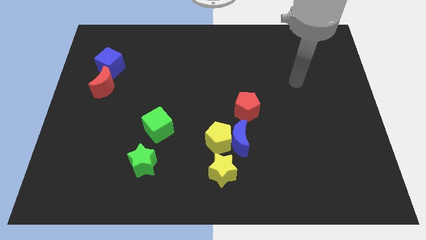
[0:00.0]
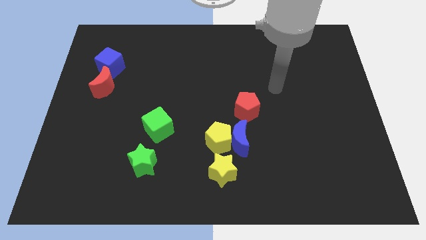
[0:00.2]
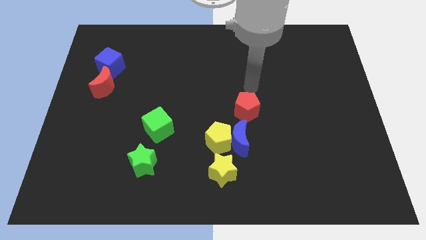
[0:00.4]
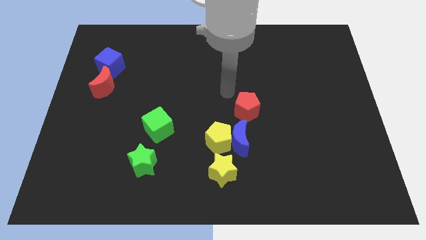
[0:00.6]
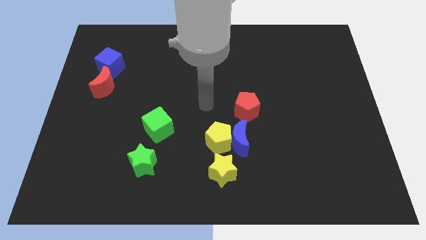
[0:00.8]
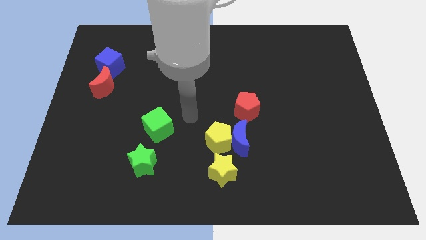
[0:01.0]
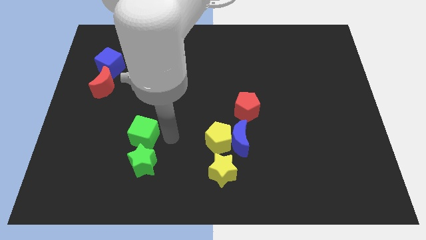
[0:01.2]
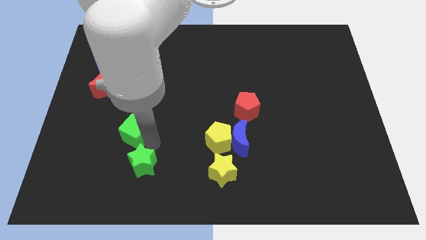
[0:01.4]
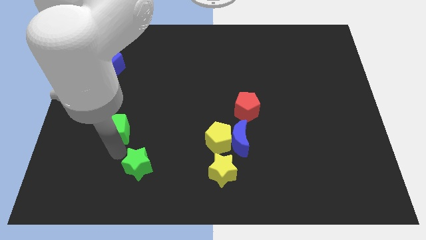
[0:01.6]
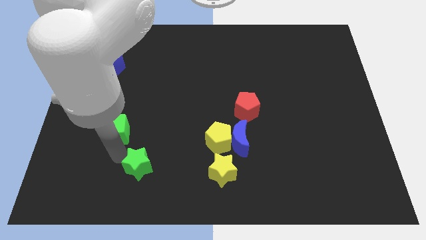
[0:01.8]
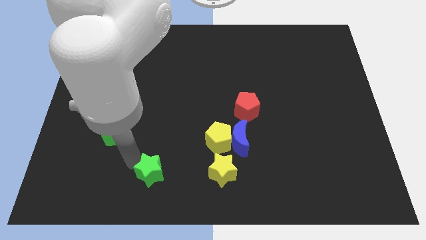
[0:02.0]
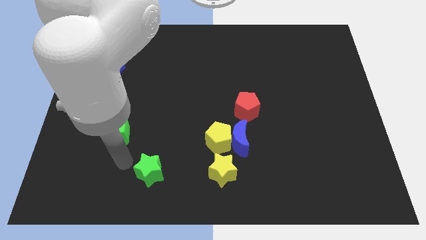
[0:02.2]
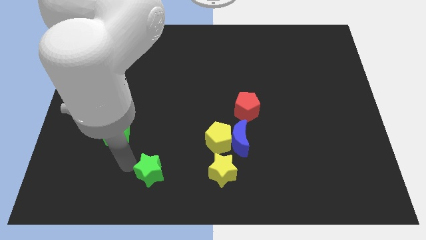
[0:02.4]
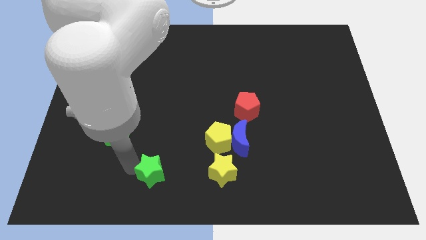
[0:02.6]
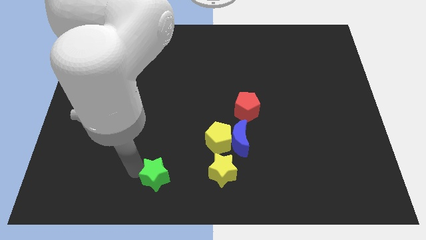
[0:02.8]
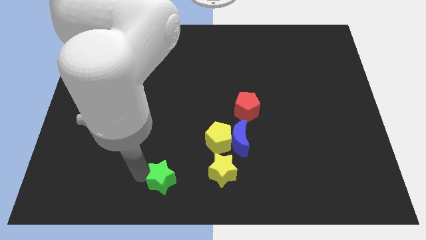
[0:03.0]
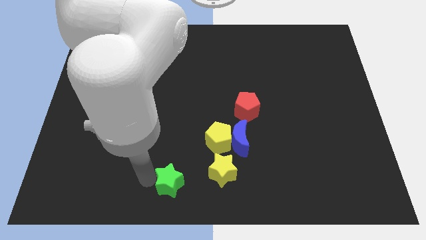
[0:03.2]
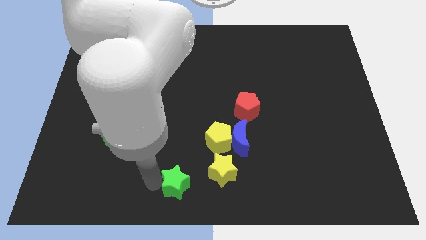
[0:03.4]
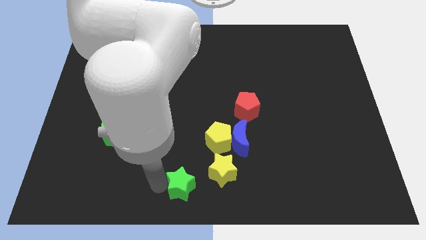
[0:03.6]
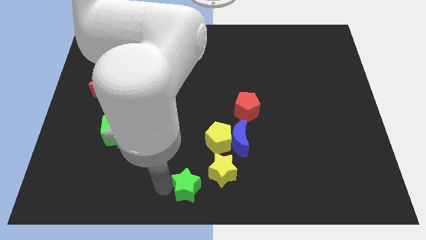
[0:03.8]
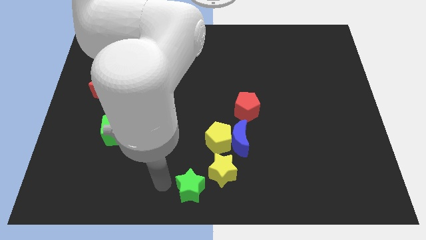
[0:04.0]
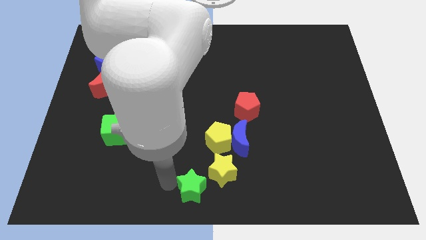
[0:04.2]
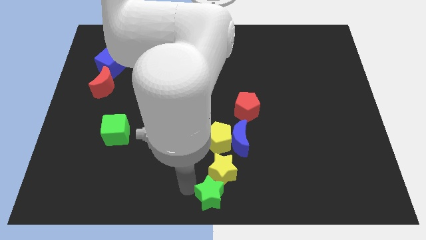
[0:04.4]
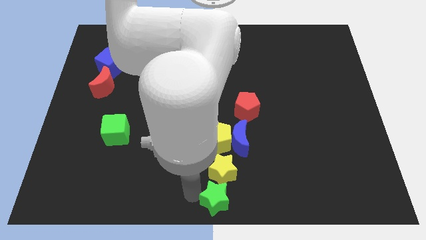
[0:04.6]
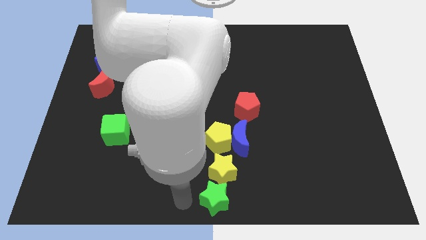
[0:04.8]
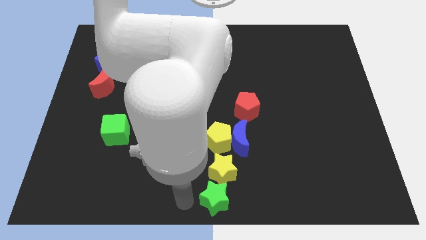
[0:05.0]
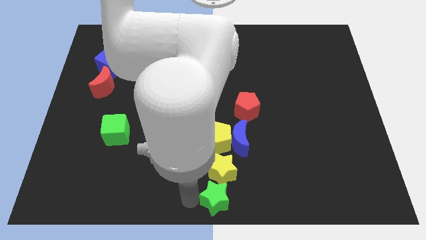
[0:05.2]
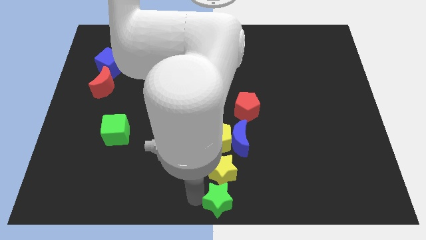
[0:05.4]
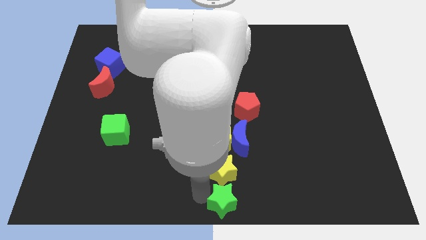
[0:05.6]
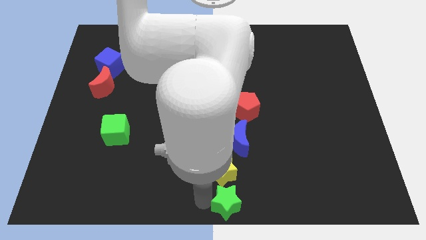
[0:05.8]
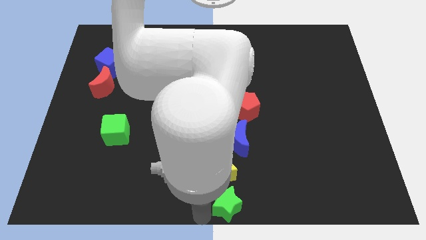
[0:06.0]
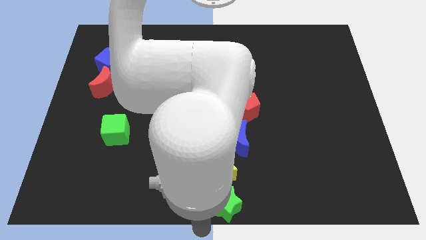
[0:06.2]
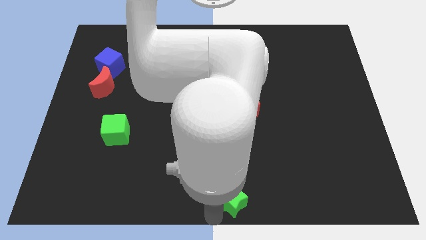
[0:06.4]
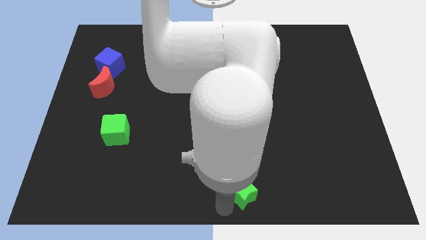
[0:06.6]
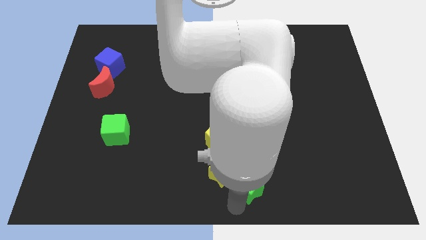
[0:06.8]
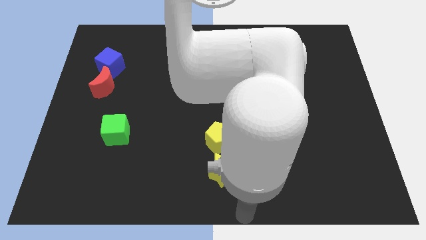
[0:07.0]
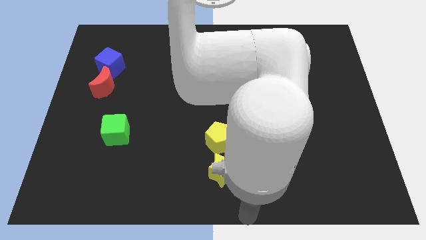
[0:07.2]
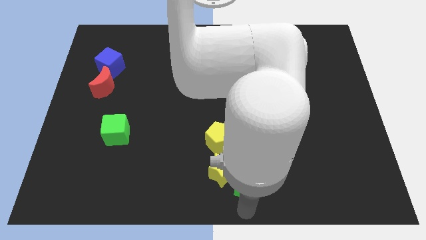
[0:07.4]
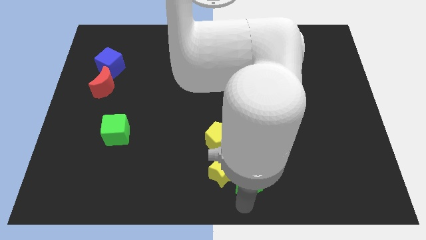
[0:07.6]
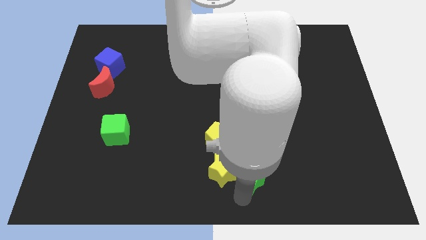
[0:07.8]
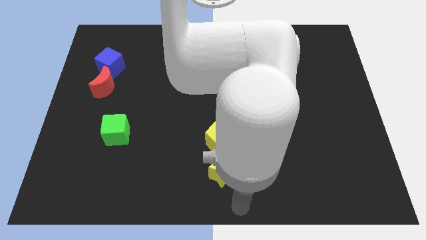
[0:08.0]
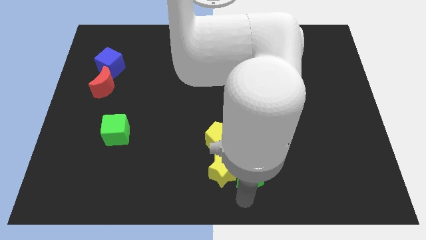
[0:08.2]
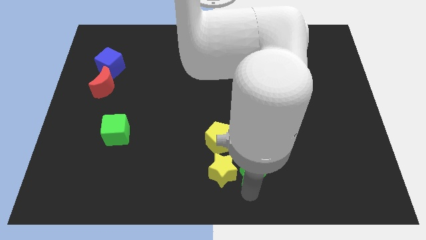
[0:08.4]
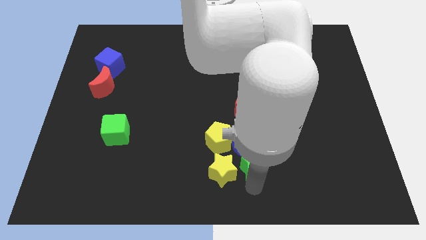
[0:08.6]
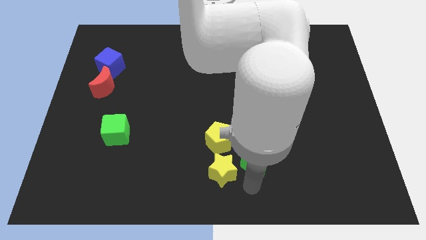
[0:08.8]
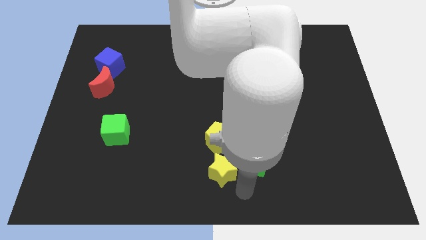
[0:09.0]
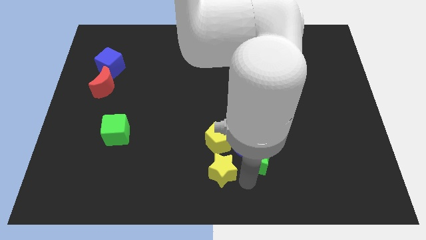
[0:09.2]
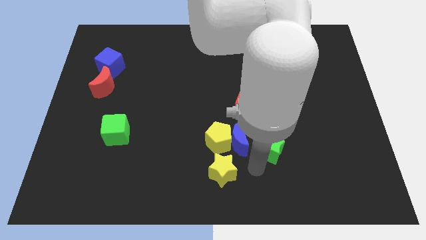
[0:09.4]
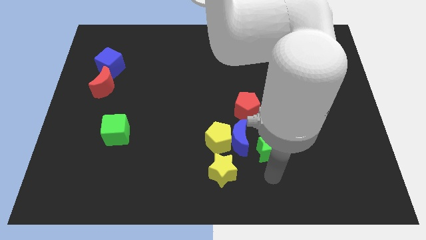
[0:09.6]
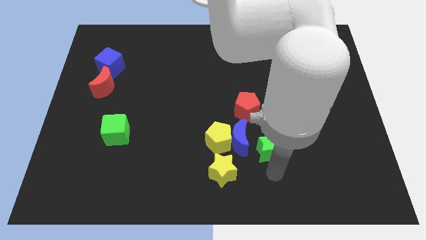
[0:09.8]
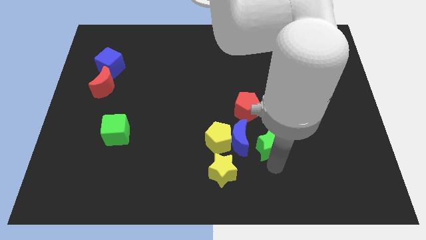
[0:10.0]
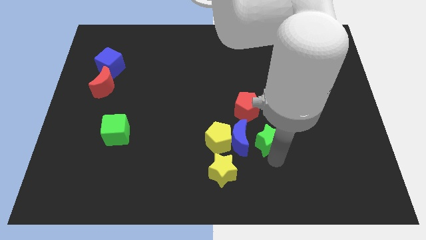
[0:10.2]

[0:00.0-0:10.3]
move the green star to the top right side of the blue moon

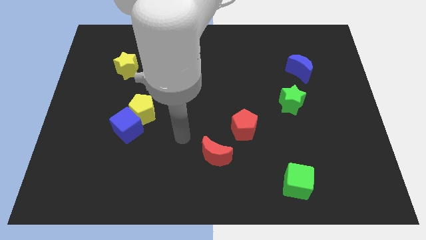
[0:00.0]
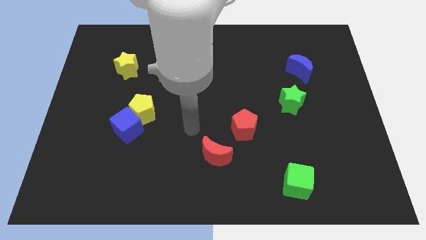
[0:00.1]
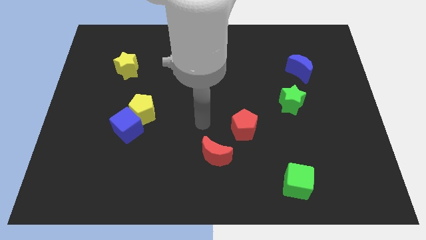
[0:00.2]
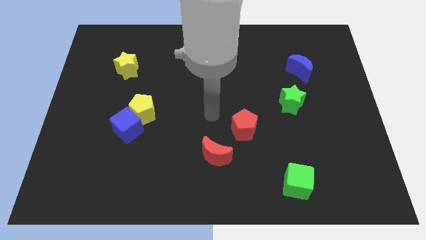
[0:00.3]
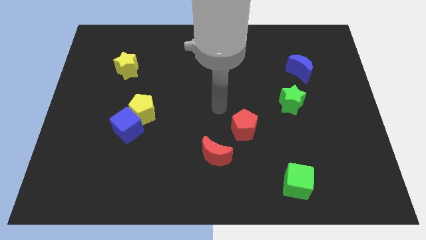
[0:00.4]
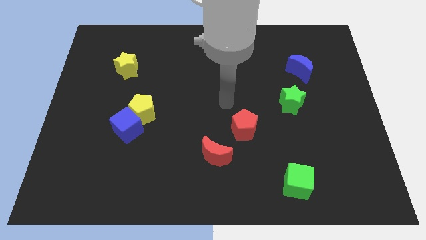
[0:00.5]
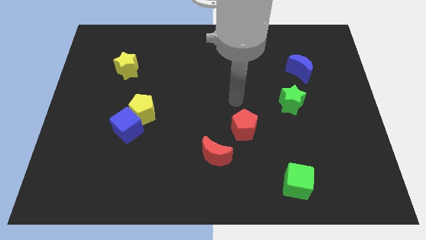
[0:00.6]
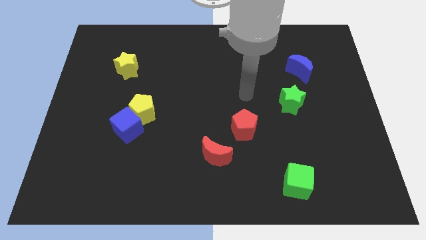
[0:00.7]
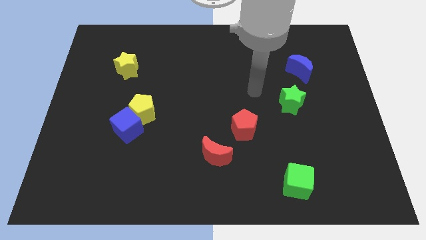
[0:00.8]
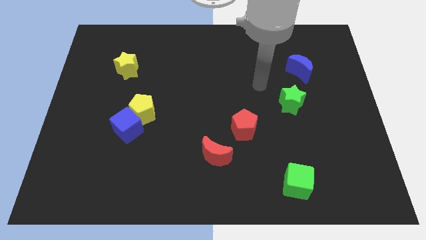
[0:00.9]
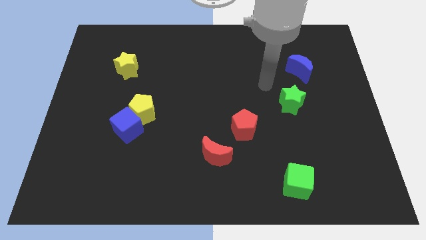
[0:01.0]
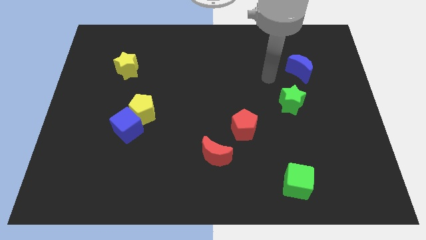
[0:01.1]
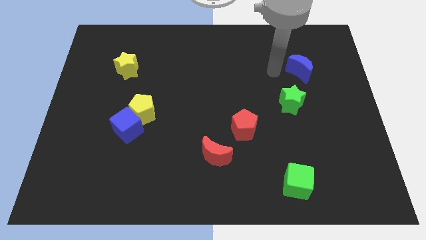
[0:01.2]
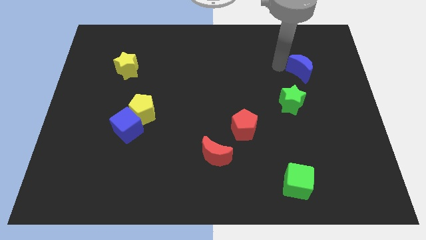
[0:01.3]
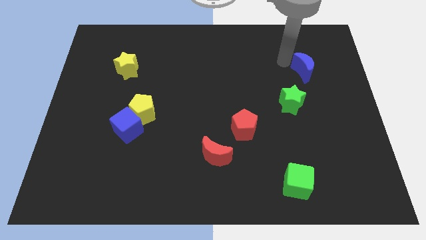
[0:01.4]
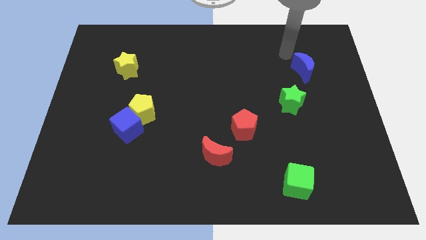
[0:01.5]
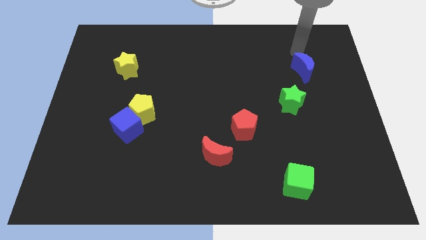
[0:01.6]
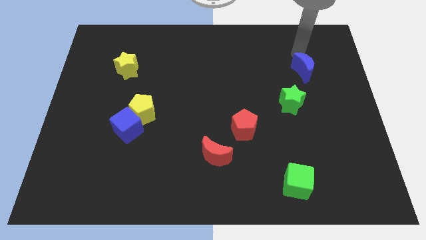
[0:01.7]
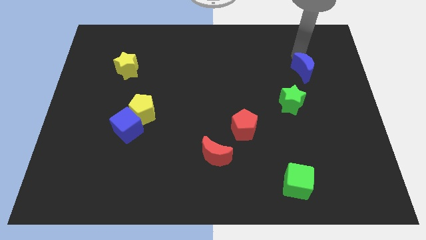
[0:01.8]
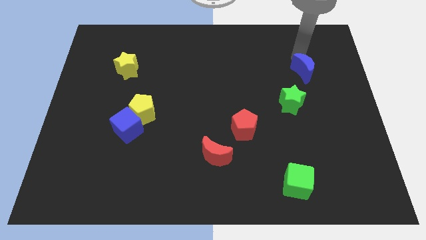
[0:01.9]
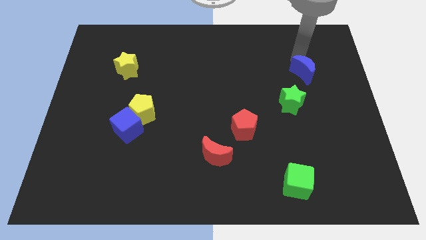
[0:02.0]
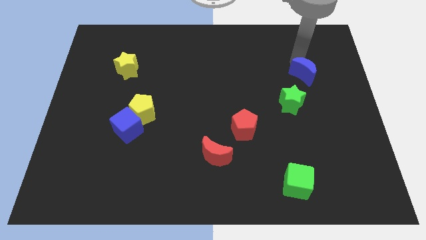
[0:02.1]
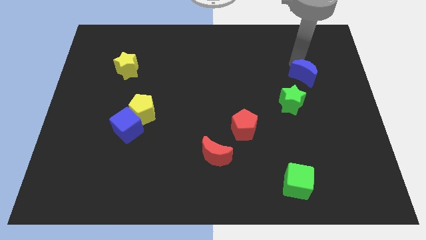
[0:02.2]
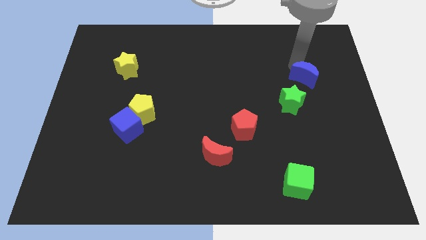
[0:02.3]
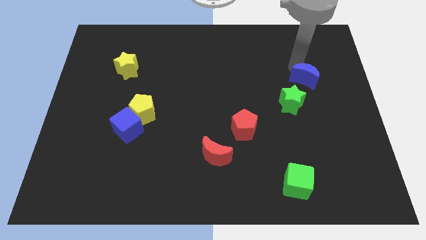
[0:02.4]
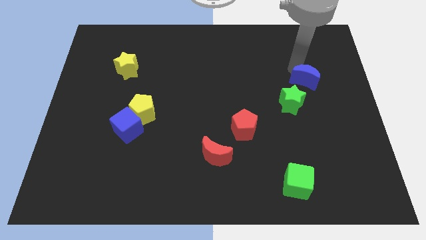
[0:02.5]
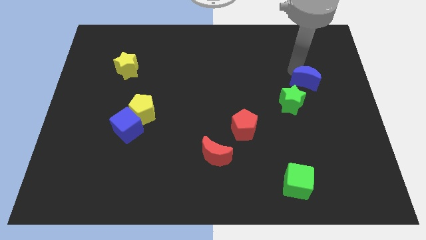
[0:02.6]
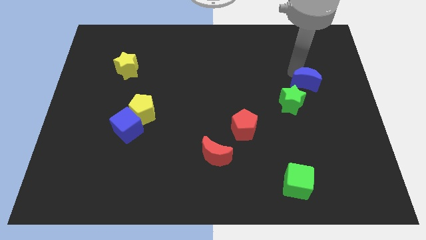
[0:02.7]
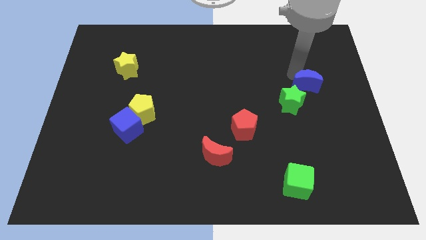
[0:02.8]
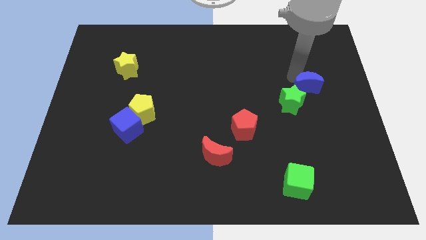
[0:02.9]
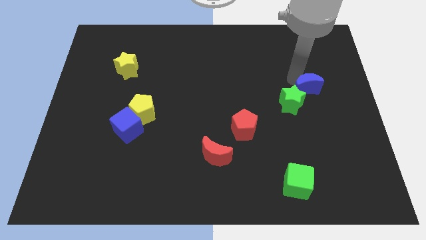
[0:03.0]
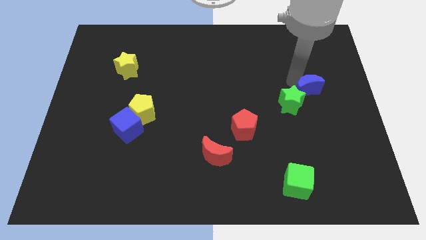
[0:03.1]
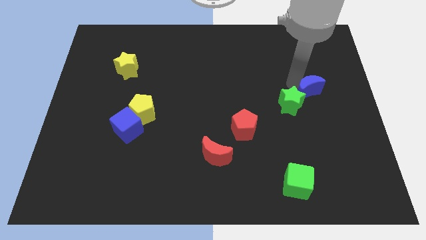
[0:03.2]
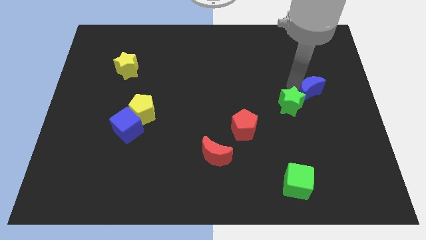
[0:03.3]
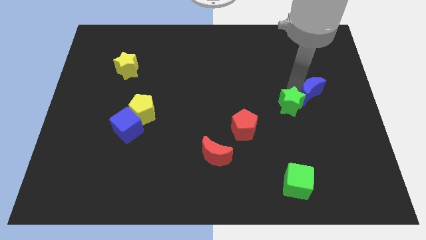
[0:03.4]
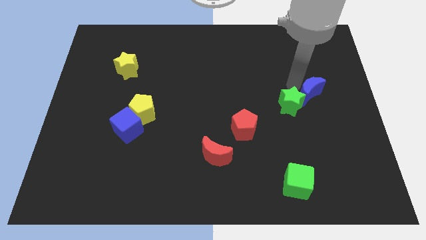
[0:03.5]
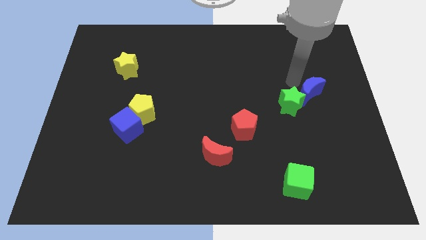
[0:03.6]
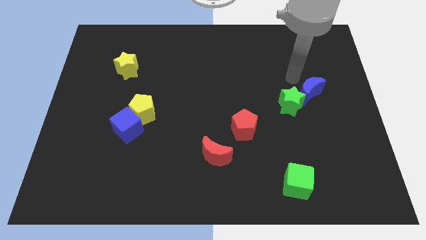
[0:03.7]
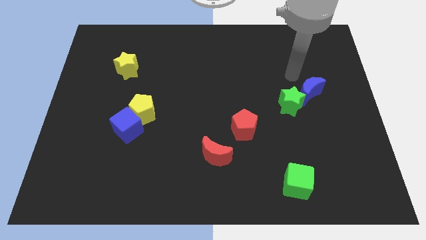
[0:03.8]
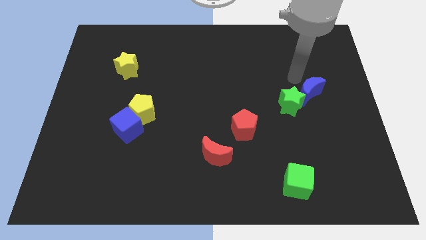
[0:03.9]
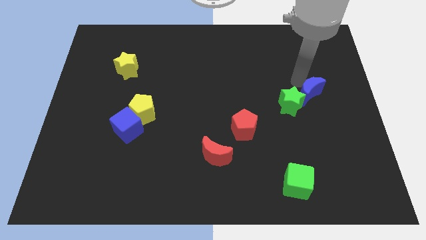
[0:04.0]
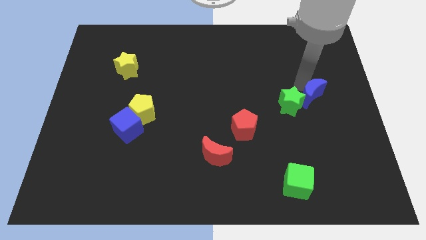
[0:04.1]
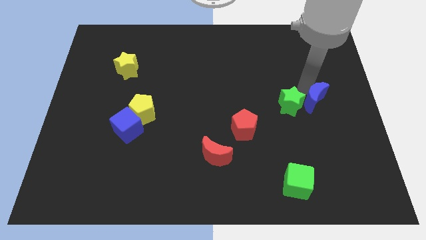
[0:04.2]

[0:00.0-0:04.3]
slide the blue moon diagonally down and to the right of the green star
